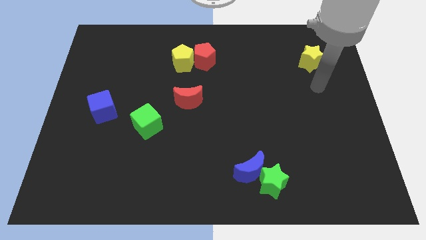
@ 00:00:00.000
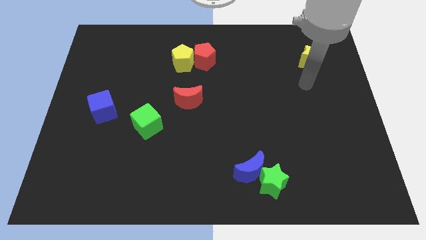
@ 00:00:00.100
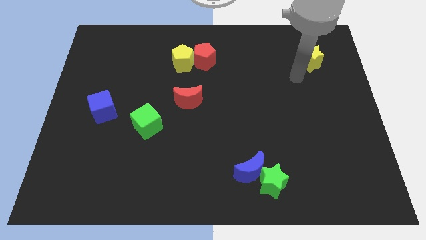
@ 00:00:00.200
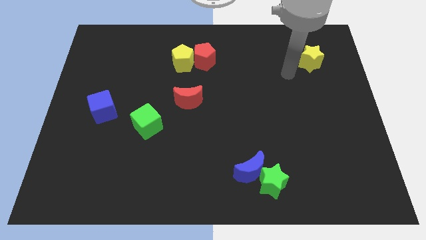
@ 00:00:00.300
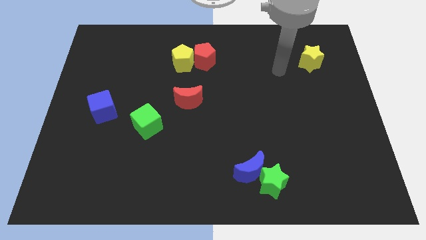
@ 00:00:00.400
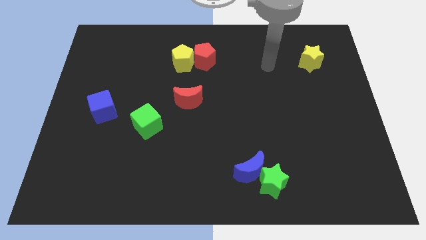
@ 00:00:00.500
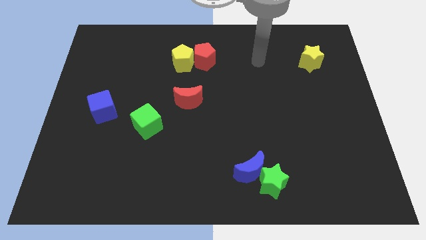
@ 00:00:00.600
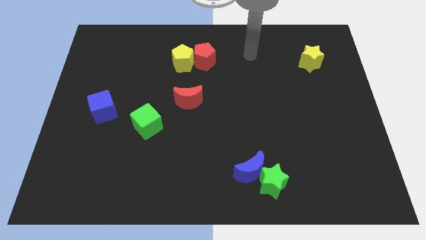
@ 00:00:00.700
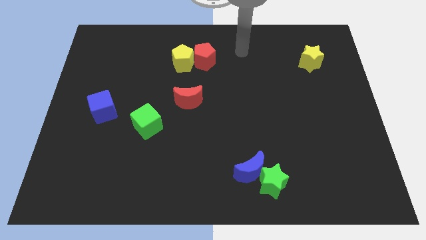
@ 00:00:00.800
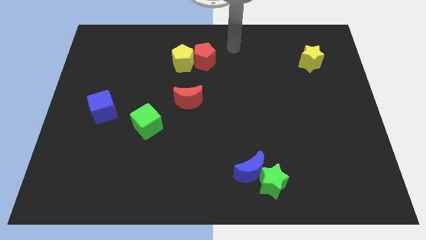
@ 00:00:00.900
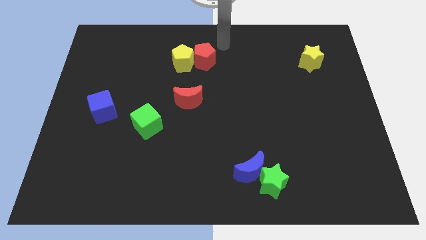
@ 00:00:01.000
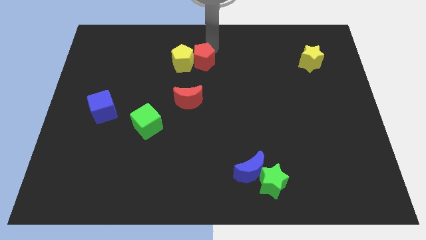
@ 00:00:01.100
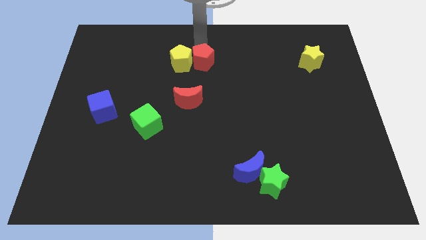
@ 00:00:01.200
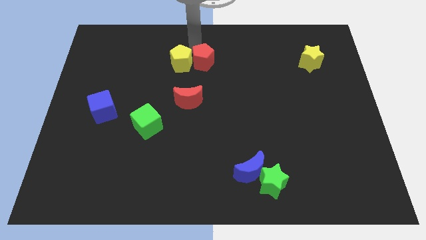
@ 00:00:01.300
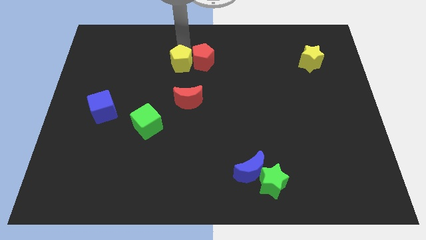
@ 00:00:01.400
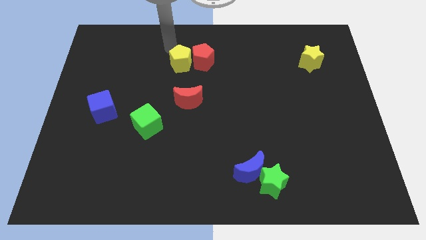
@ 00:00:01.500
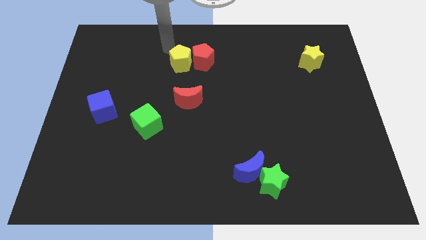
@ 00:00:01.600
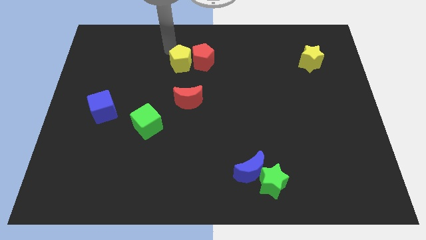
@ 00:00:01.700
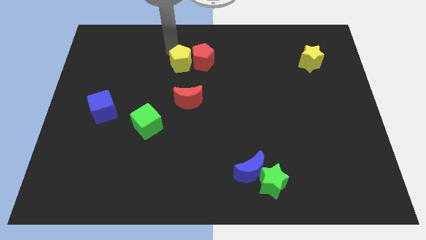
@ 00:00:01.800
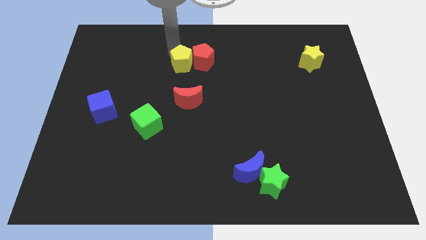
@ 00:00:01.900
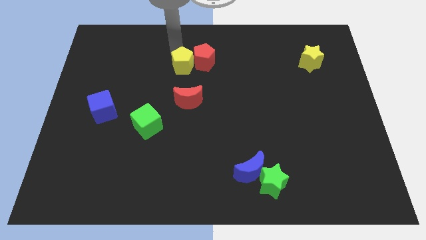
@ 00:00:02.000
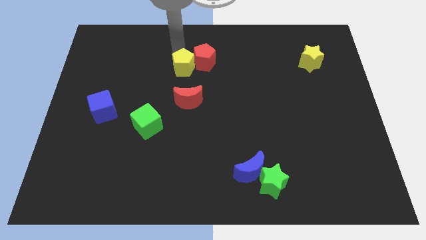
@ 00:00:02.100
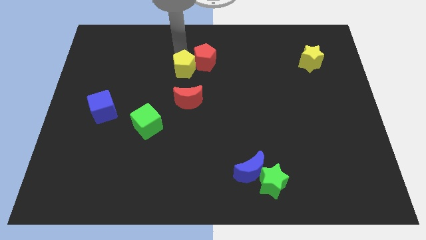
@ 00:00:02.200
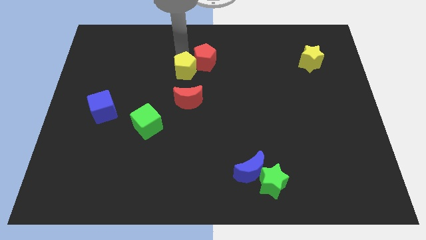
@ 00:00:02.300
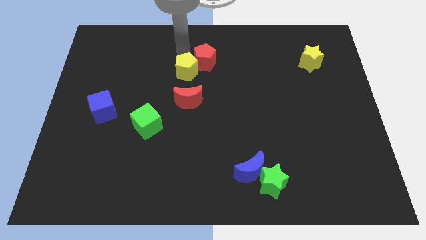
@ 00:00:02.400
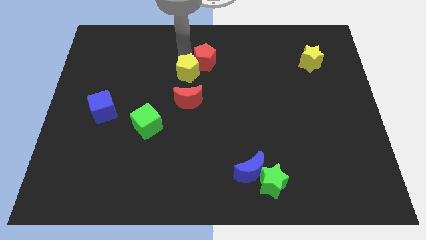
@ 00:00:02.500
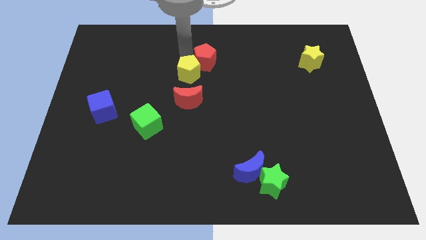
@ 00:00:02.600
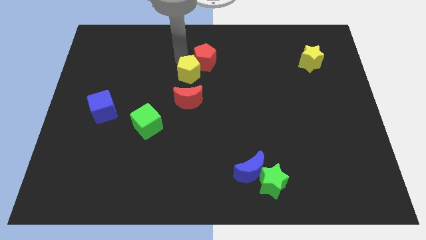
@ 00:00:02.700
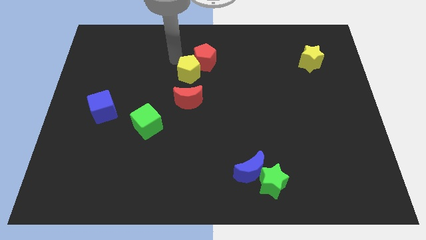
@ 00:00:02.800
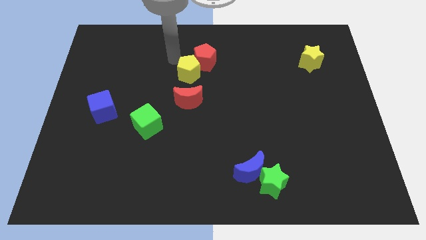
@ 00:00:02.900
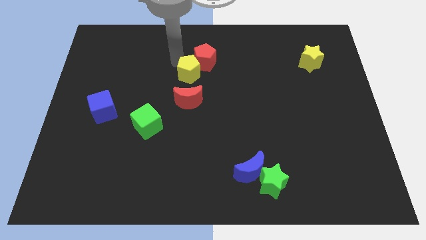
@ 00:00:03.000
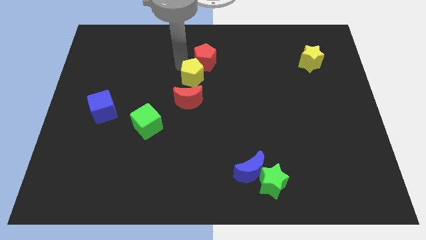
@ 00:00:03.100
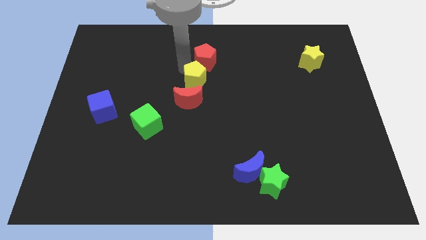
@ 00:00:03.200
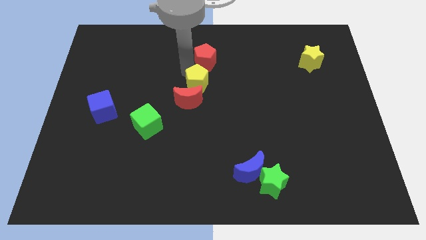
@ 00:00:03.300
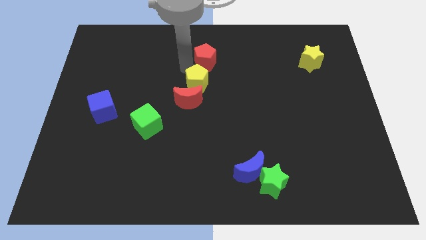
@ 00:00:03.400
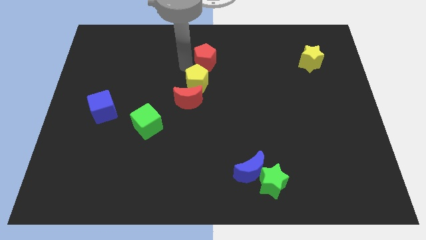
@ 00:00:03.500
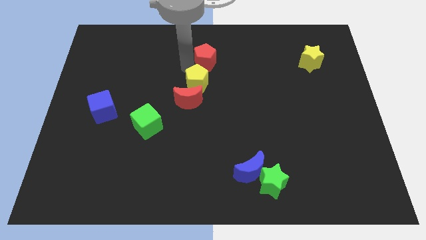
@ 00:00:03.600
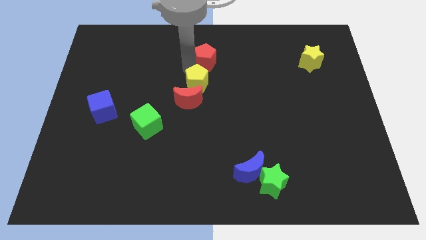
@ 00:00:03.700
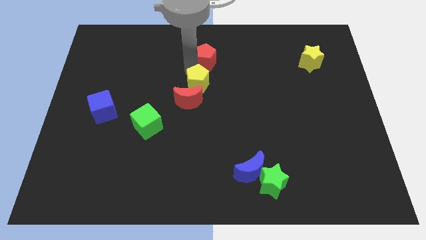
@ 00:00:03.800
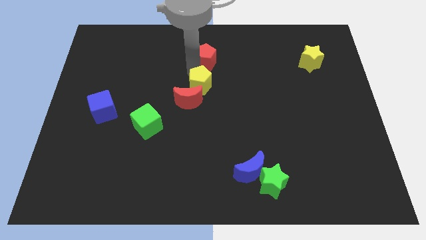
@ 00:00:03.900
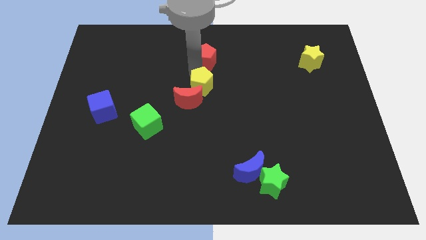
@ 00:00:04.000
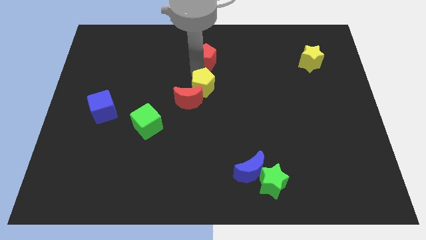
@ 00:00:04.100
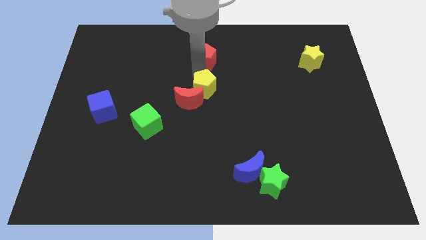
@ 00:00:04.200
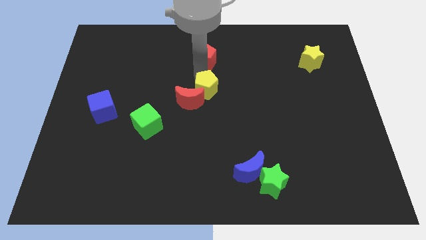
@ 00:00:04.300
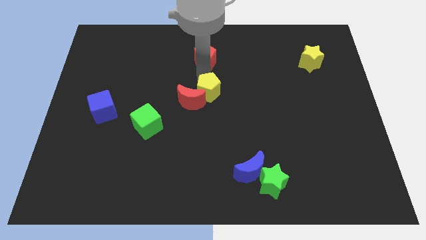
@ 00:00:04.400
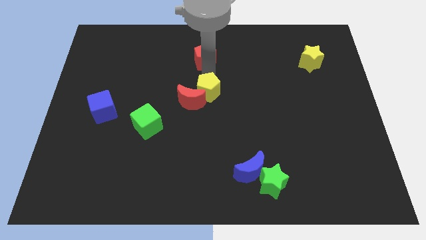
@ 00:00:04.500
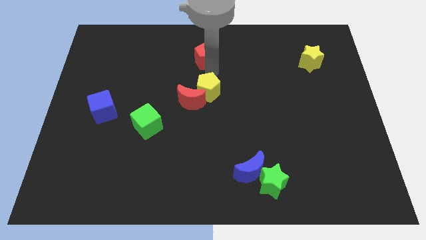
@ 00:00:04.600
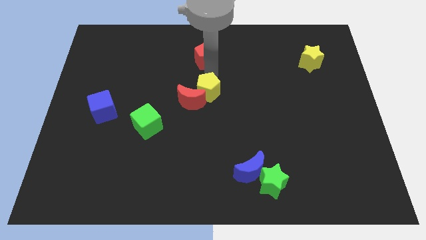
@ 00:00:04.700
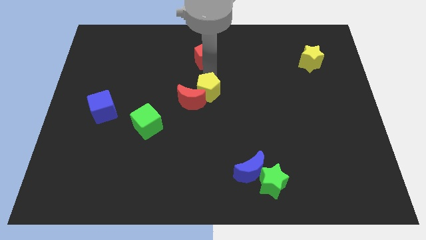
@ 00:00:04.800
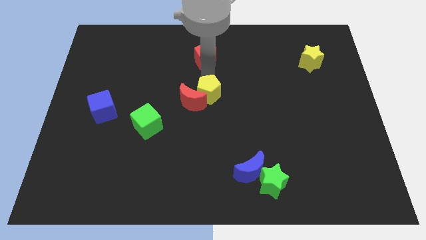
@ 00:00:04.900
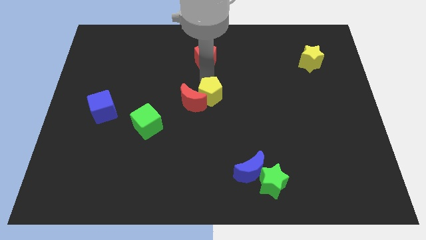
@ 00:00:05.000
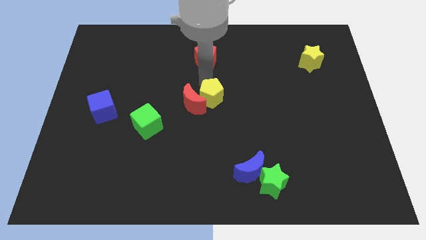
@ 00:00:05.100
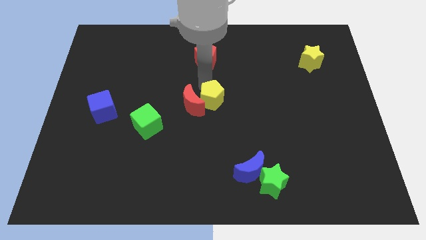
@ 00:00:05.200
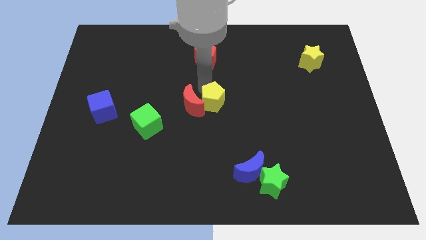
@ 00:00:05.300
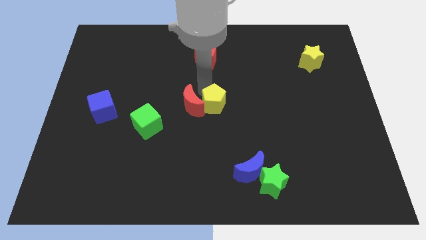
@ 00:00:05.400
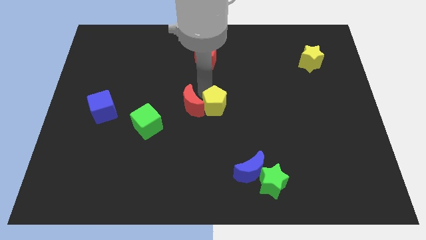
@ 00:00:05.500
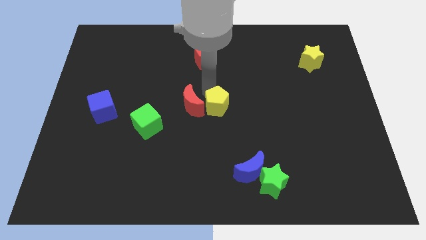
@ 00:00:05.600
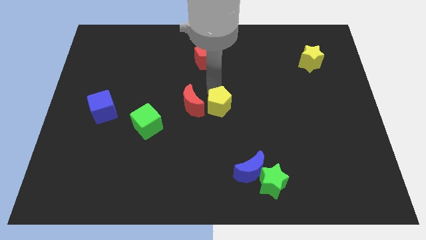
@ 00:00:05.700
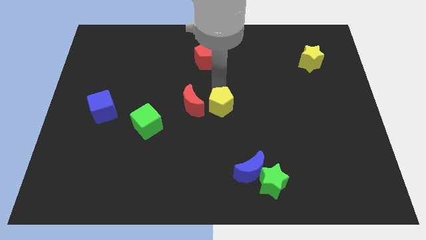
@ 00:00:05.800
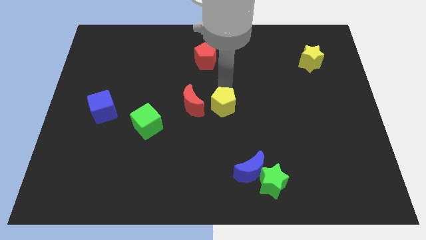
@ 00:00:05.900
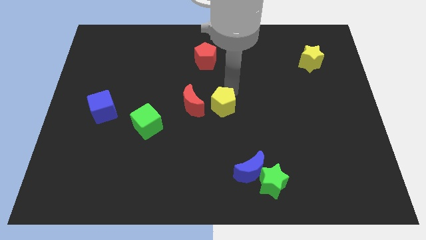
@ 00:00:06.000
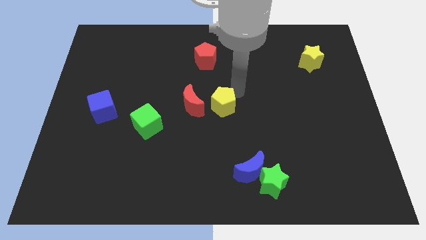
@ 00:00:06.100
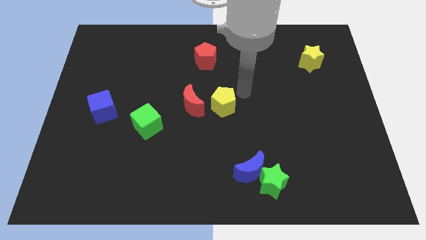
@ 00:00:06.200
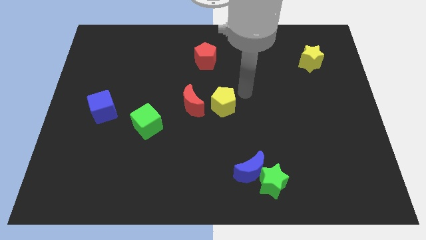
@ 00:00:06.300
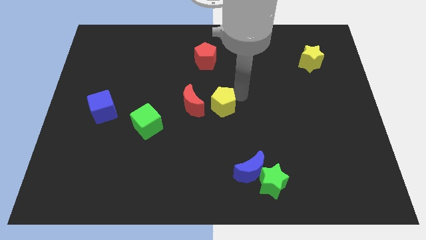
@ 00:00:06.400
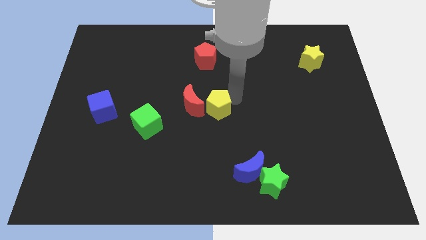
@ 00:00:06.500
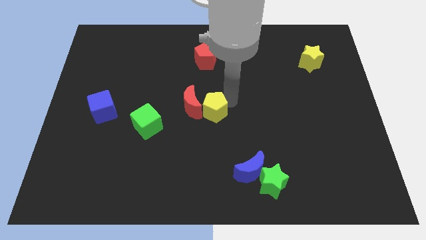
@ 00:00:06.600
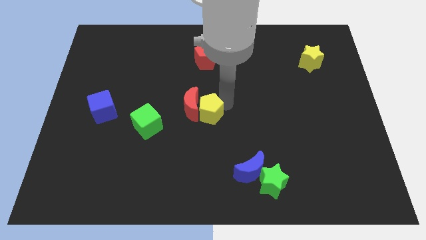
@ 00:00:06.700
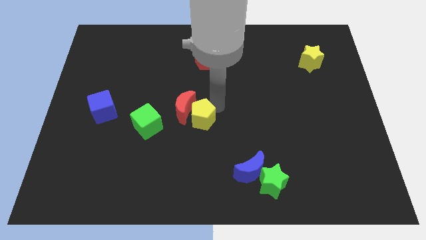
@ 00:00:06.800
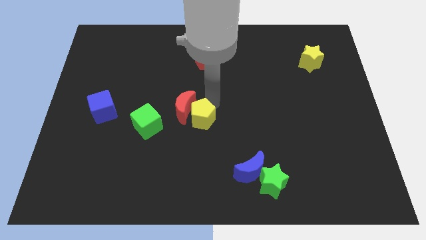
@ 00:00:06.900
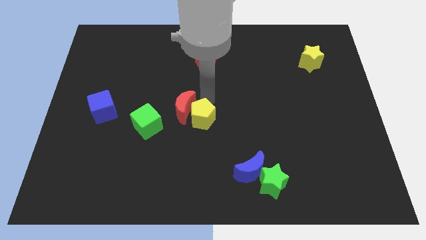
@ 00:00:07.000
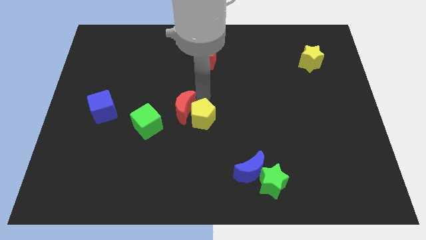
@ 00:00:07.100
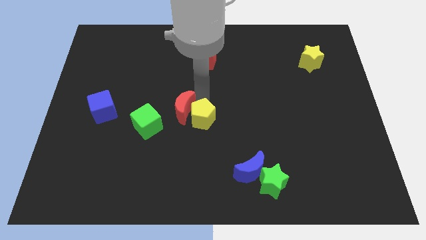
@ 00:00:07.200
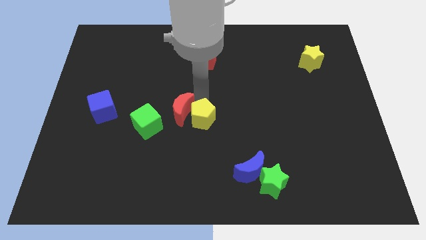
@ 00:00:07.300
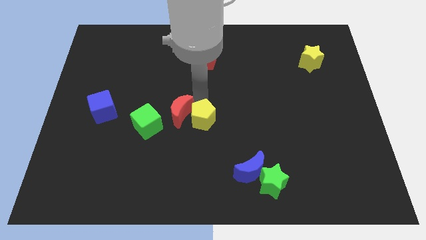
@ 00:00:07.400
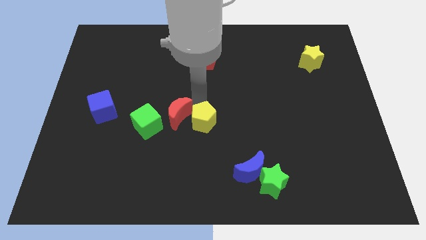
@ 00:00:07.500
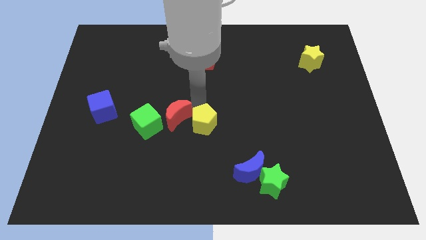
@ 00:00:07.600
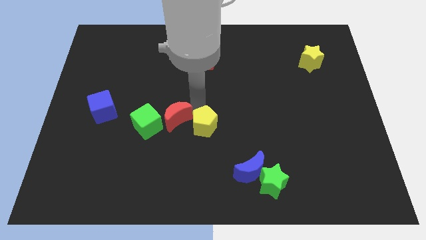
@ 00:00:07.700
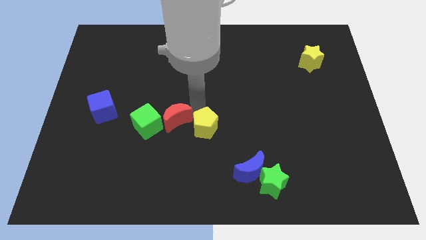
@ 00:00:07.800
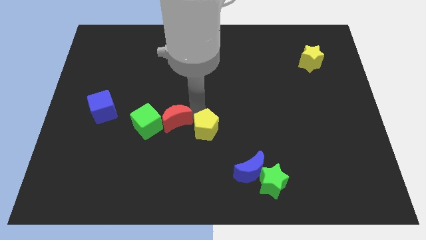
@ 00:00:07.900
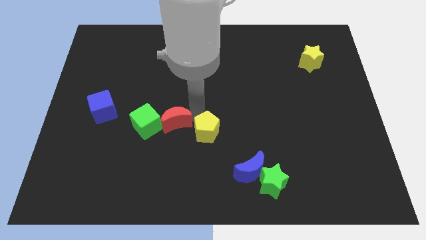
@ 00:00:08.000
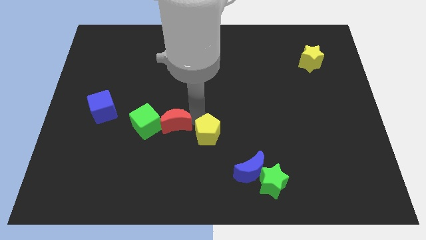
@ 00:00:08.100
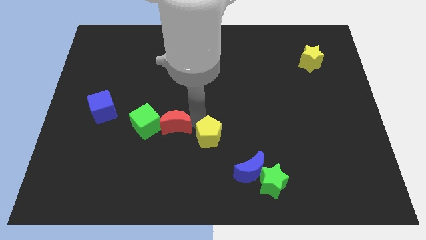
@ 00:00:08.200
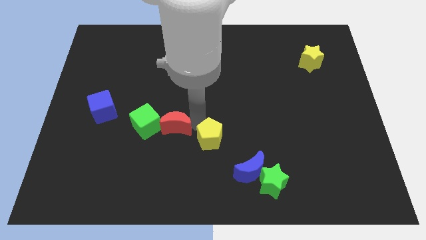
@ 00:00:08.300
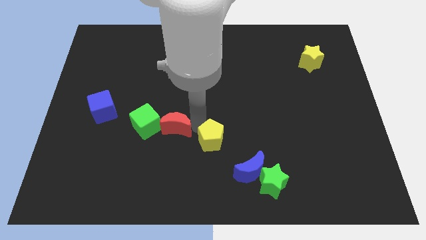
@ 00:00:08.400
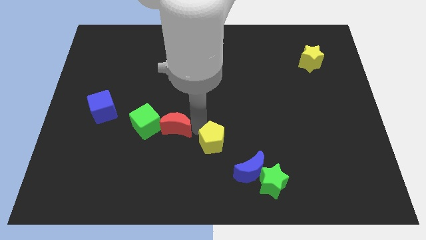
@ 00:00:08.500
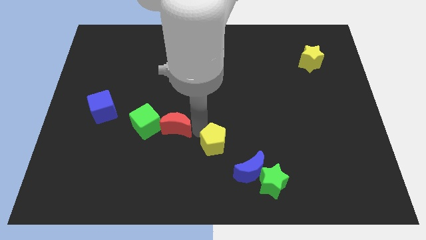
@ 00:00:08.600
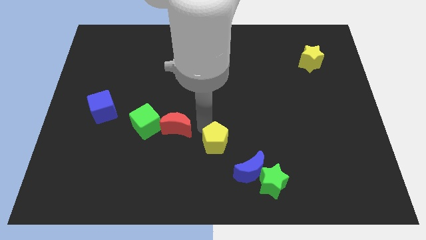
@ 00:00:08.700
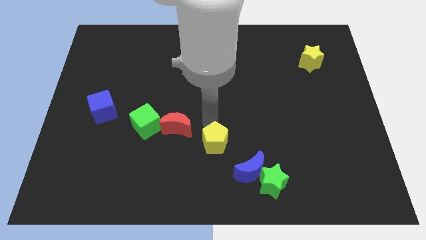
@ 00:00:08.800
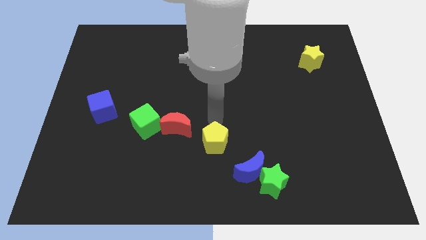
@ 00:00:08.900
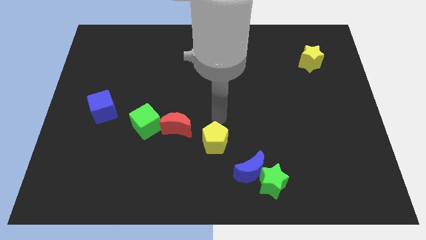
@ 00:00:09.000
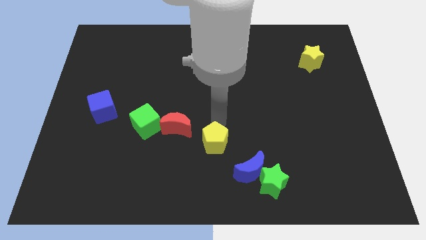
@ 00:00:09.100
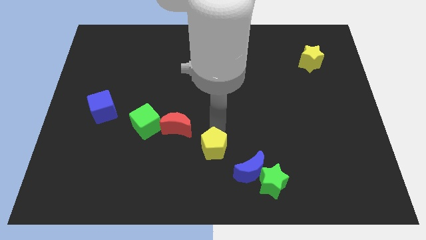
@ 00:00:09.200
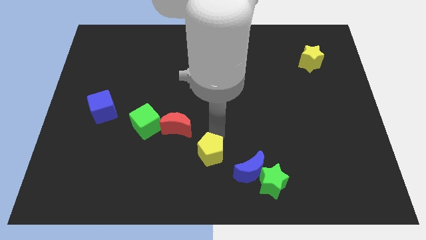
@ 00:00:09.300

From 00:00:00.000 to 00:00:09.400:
put the yellow pentagon to the bottom side
